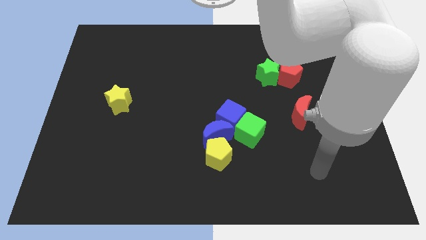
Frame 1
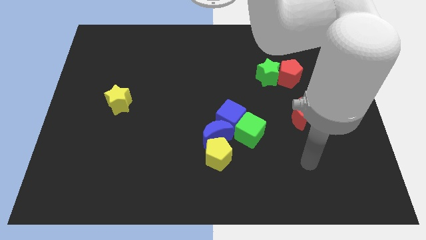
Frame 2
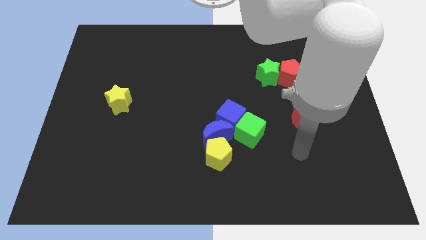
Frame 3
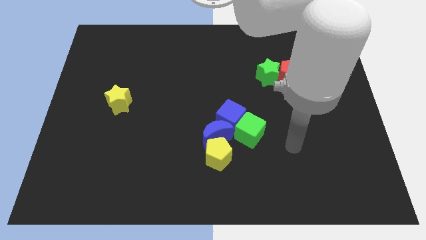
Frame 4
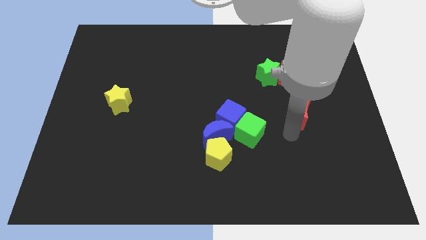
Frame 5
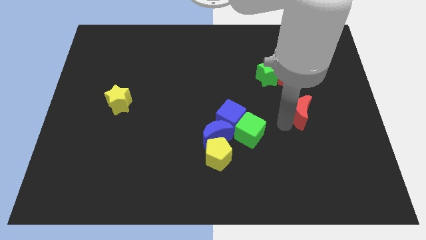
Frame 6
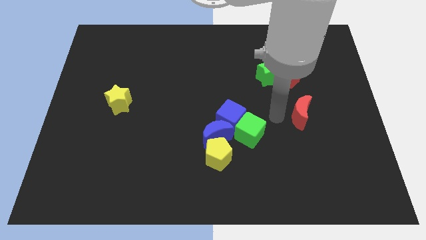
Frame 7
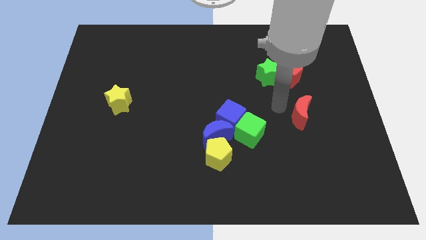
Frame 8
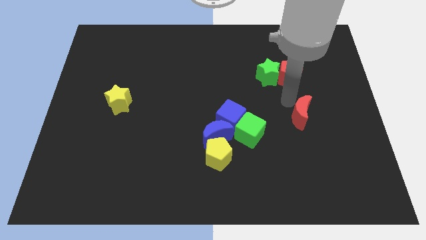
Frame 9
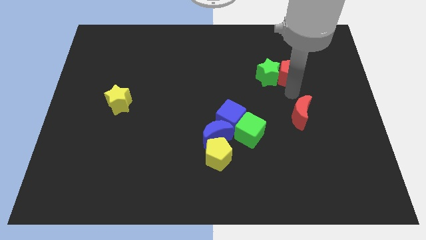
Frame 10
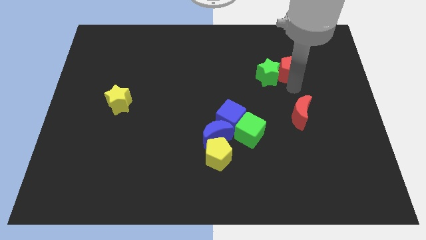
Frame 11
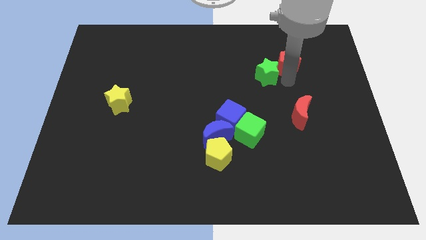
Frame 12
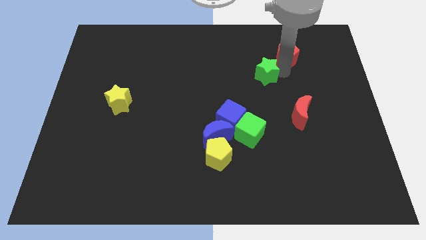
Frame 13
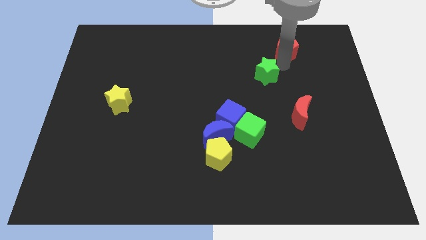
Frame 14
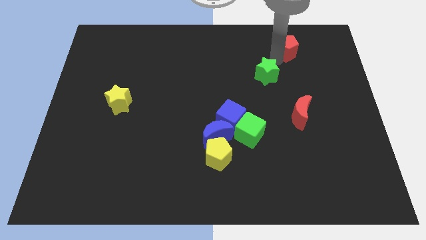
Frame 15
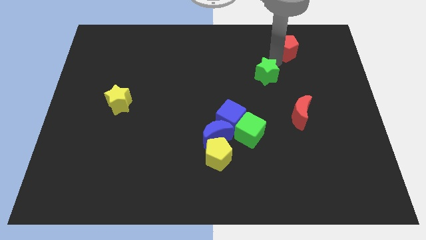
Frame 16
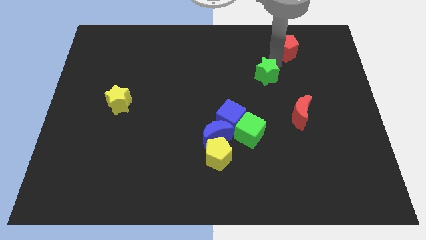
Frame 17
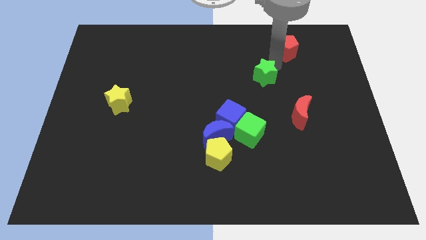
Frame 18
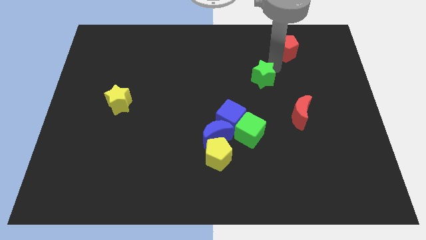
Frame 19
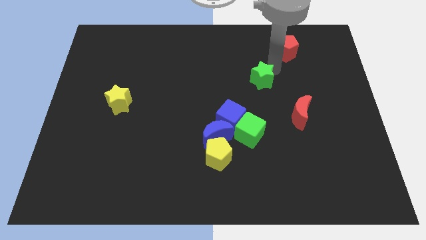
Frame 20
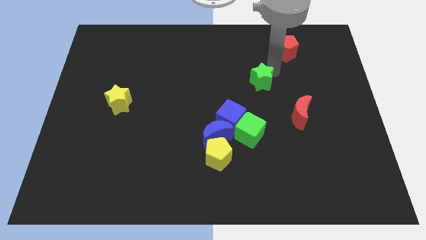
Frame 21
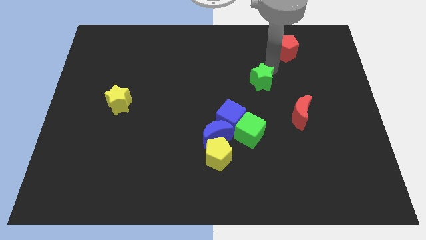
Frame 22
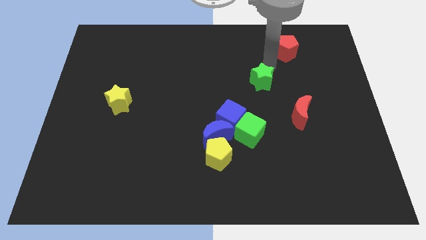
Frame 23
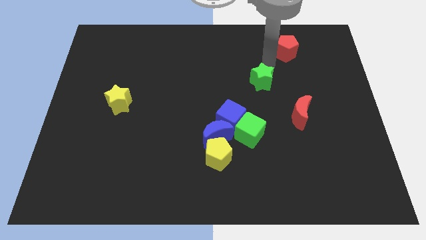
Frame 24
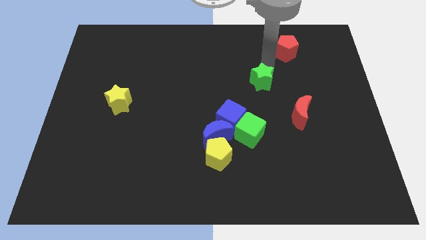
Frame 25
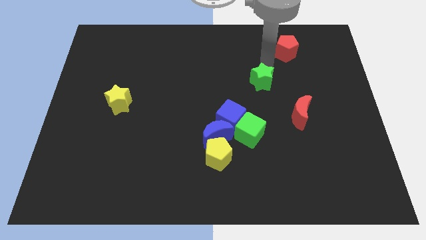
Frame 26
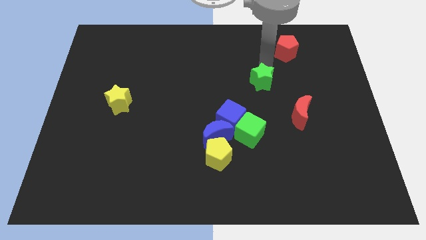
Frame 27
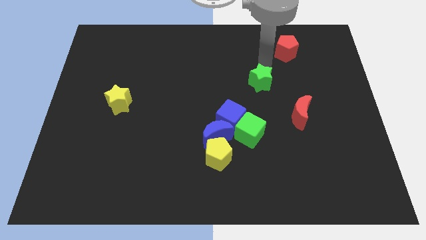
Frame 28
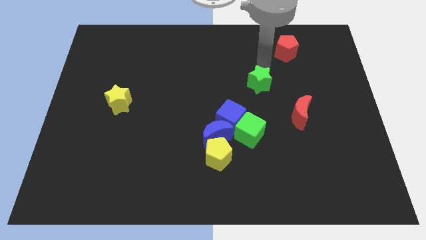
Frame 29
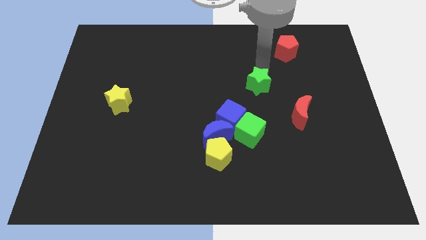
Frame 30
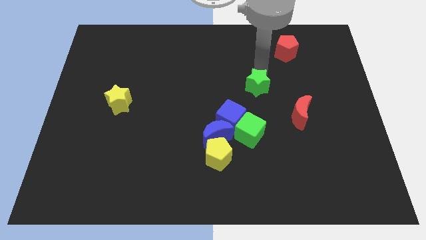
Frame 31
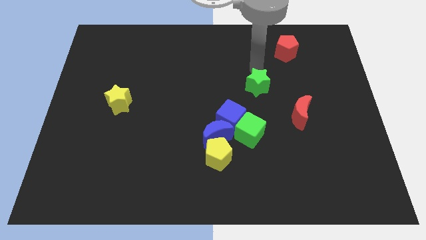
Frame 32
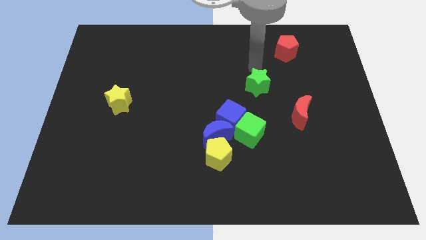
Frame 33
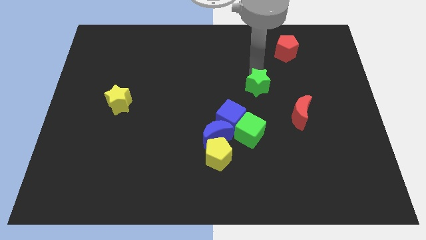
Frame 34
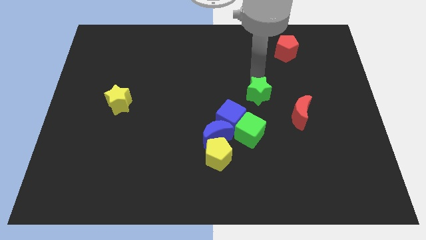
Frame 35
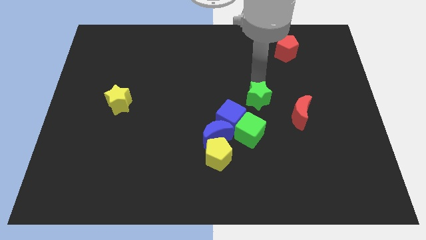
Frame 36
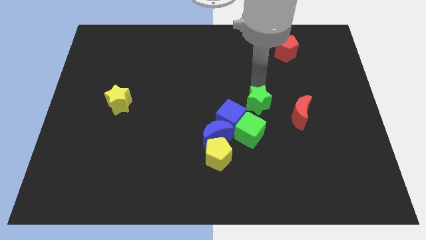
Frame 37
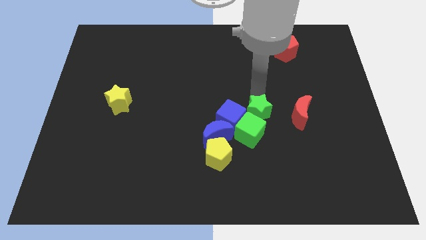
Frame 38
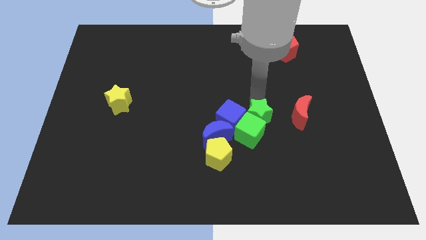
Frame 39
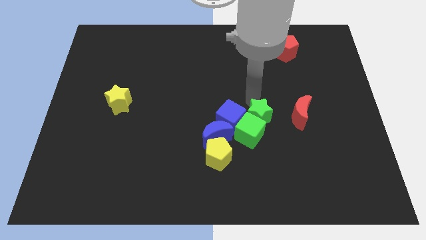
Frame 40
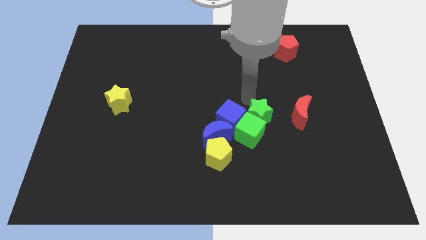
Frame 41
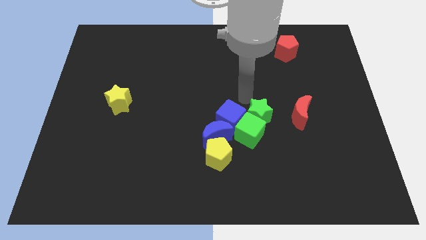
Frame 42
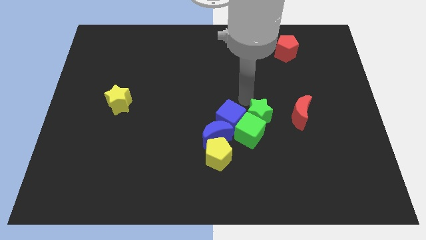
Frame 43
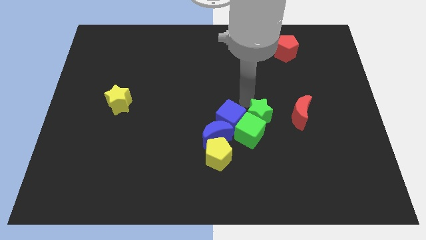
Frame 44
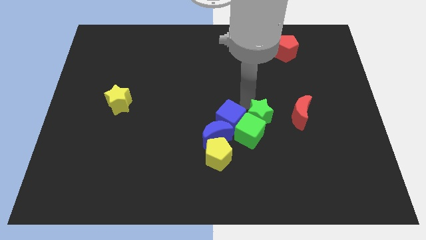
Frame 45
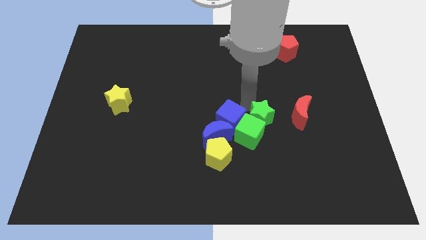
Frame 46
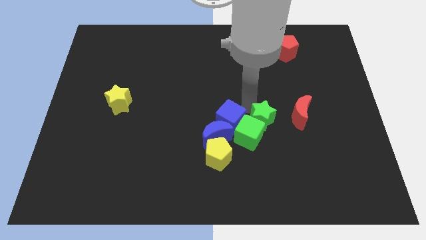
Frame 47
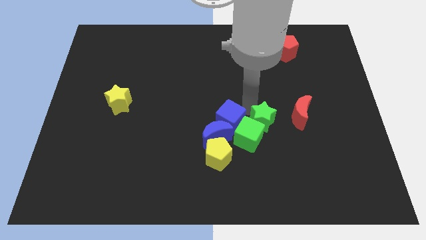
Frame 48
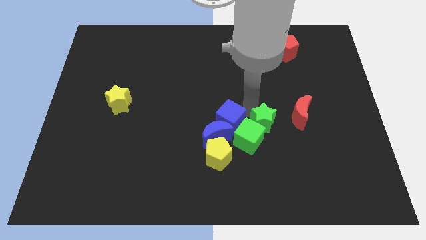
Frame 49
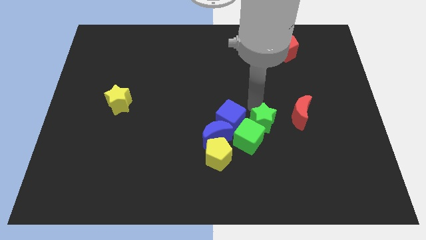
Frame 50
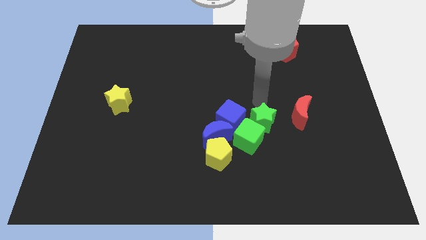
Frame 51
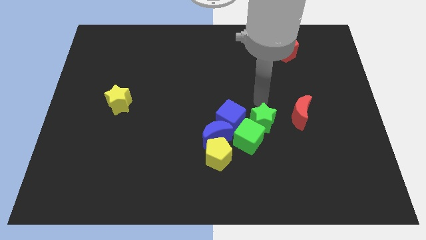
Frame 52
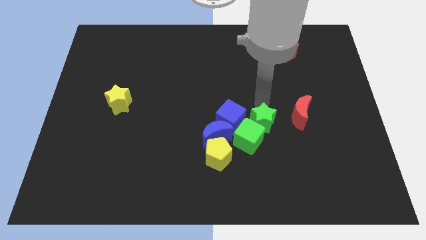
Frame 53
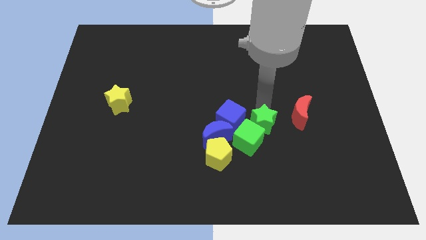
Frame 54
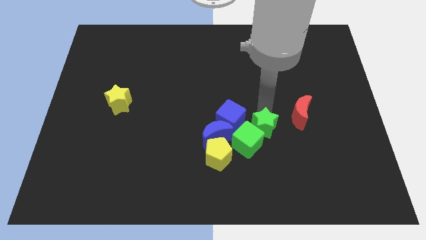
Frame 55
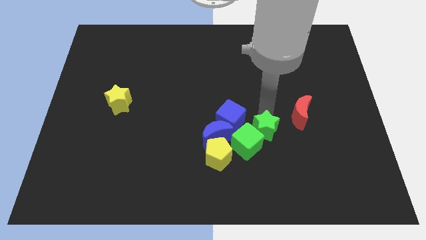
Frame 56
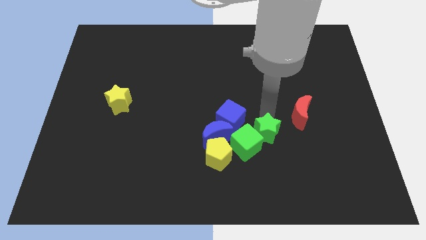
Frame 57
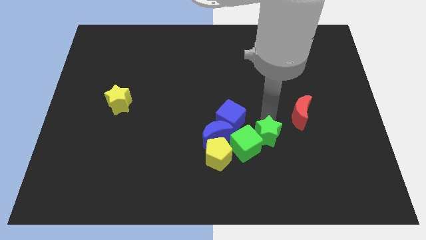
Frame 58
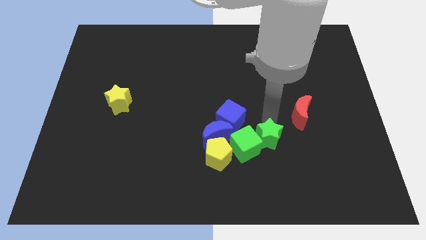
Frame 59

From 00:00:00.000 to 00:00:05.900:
slide the green star right of the yellow pentagon

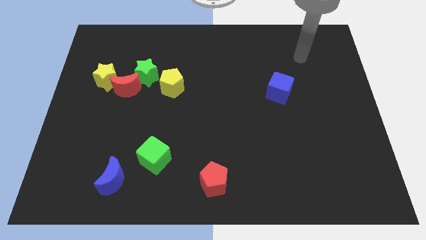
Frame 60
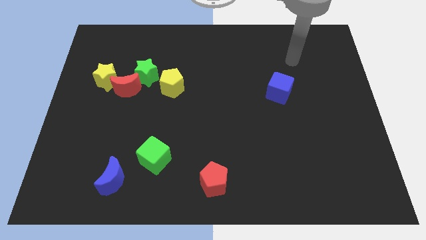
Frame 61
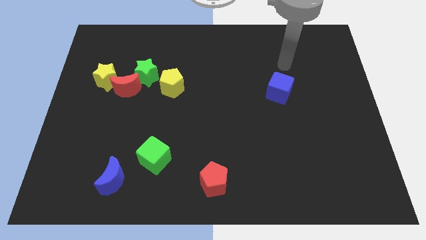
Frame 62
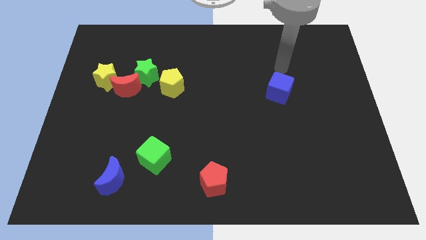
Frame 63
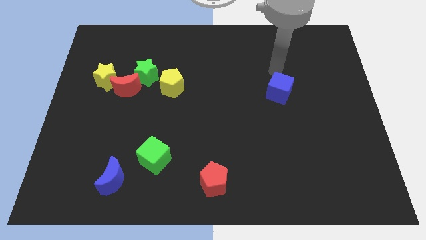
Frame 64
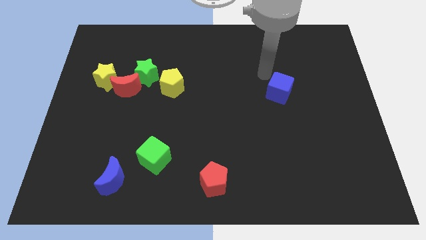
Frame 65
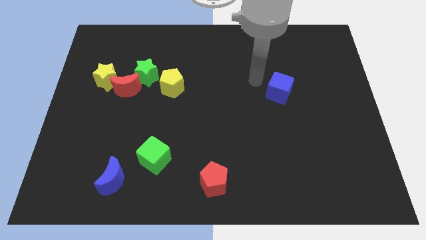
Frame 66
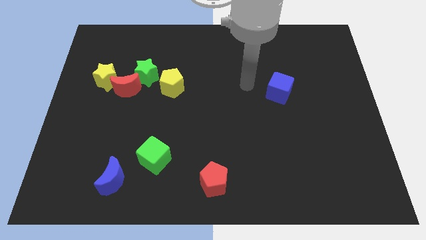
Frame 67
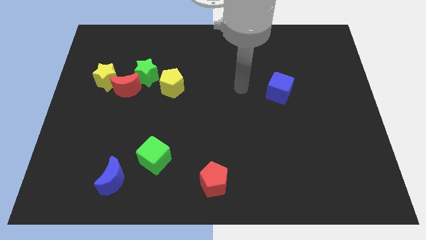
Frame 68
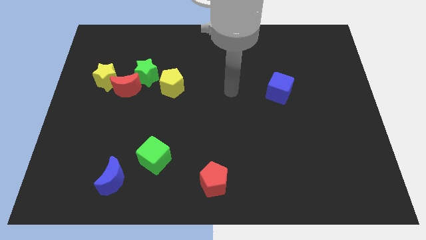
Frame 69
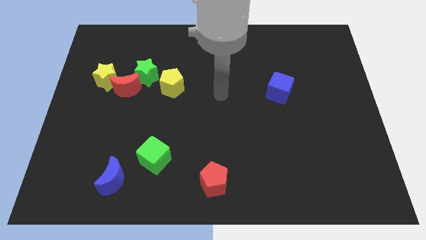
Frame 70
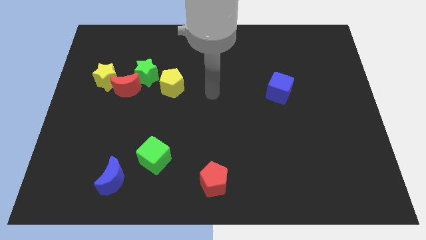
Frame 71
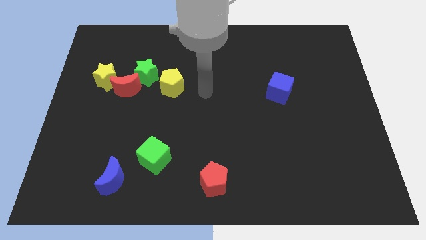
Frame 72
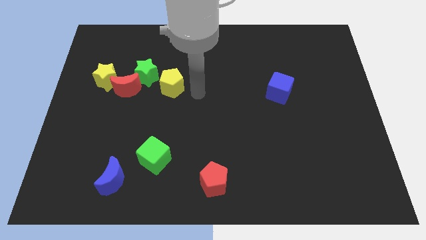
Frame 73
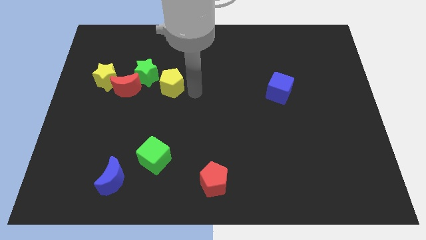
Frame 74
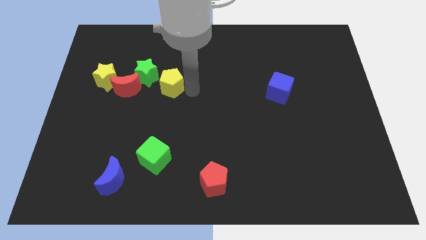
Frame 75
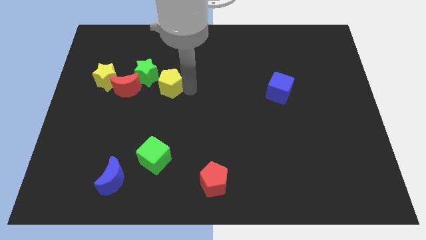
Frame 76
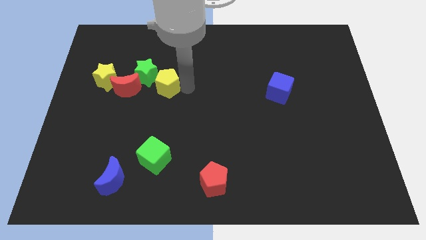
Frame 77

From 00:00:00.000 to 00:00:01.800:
move the yellow pentagon to the right side of the yellow star
